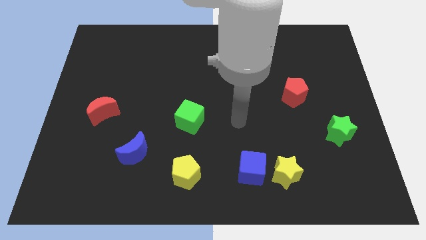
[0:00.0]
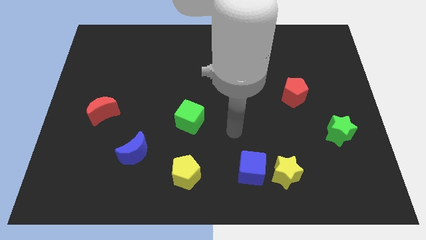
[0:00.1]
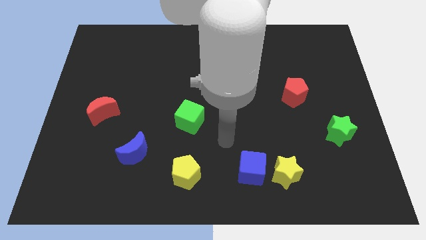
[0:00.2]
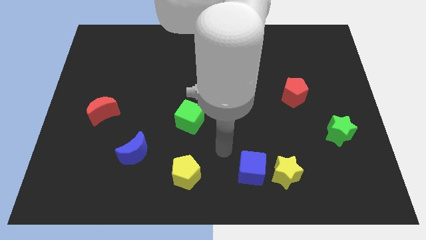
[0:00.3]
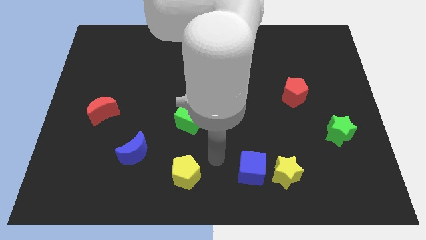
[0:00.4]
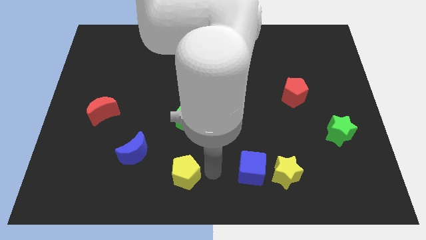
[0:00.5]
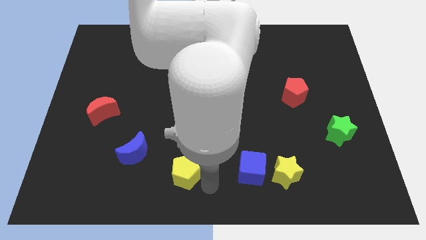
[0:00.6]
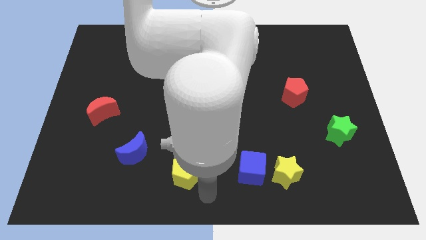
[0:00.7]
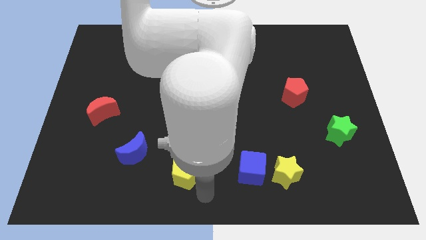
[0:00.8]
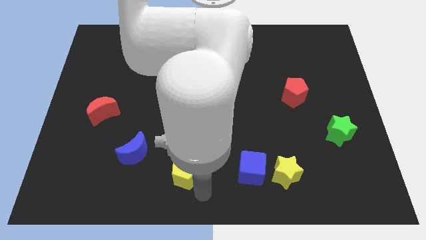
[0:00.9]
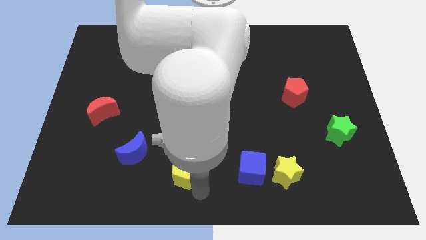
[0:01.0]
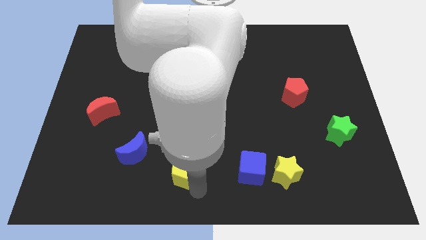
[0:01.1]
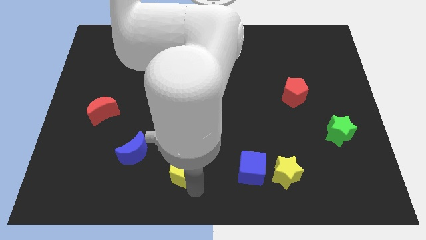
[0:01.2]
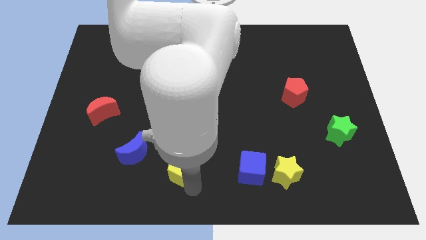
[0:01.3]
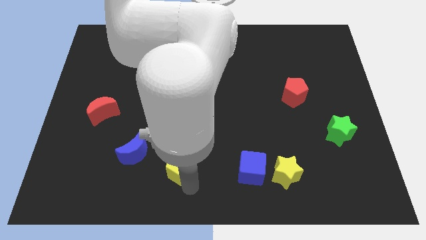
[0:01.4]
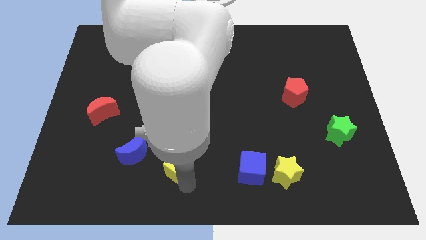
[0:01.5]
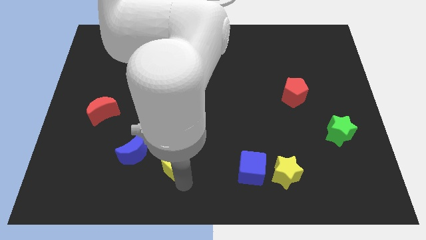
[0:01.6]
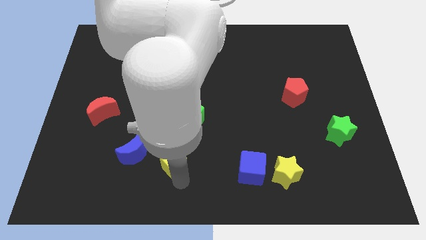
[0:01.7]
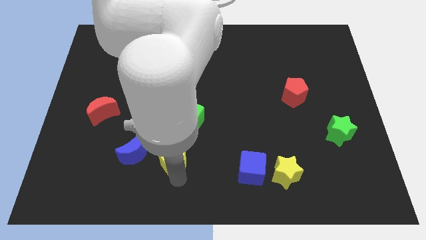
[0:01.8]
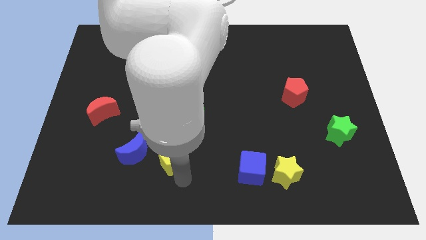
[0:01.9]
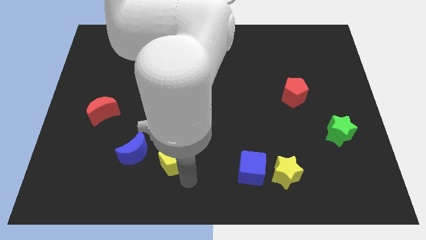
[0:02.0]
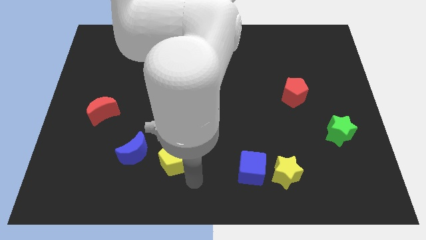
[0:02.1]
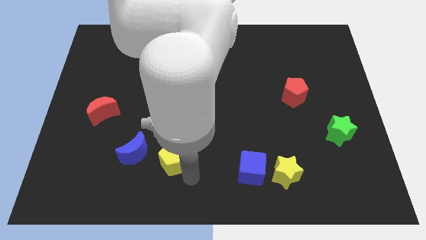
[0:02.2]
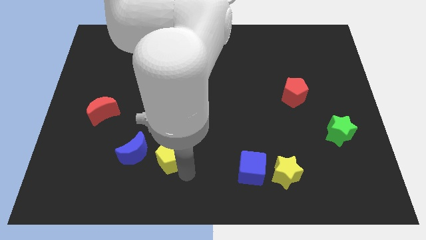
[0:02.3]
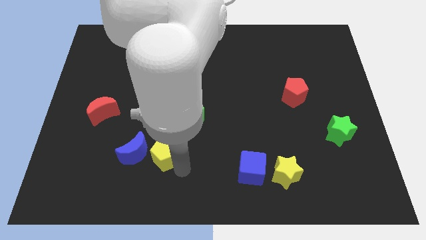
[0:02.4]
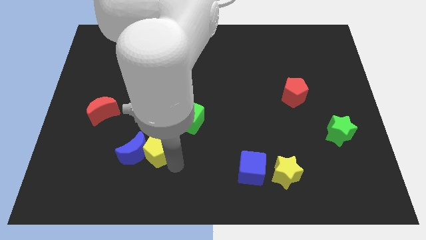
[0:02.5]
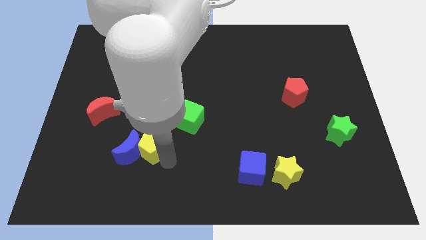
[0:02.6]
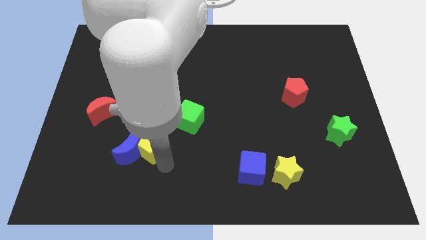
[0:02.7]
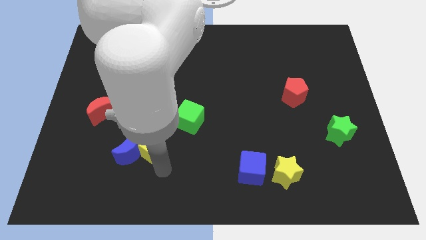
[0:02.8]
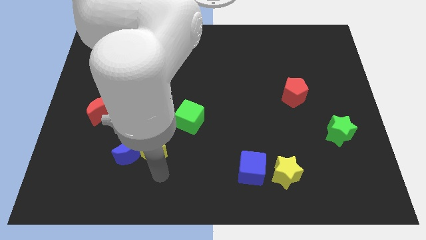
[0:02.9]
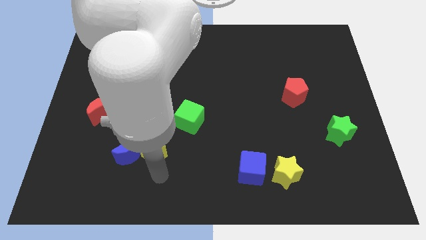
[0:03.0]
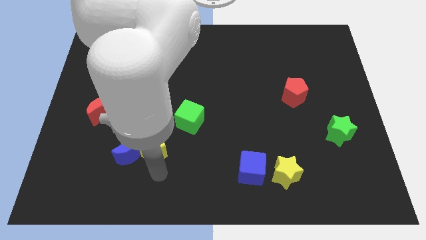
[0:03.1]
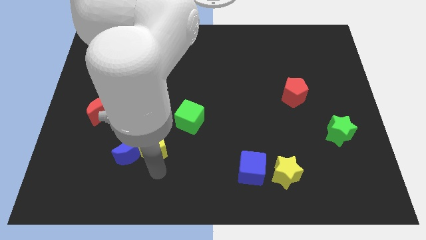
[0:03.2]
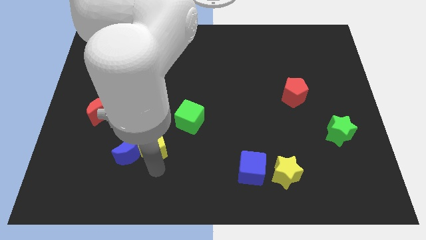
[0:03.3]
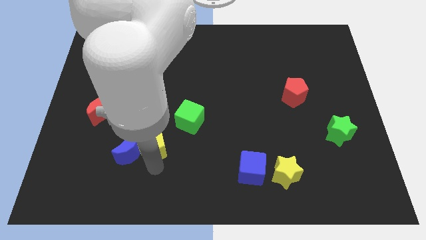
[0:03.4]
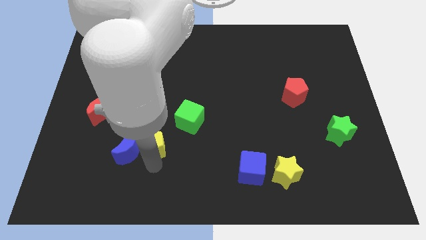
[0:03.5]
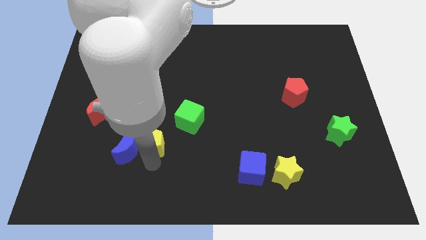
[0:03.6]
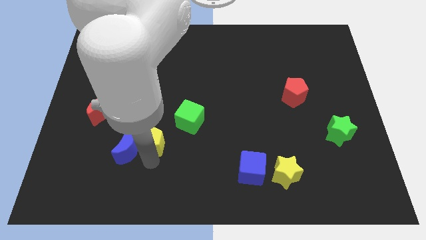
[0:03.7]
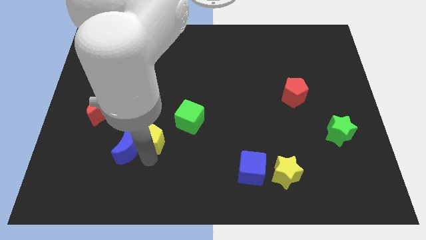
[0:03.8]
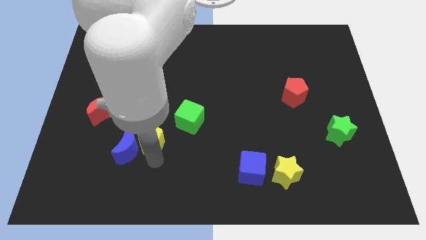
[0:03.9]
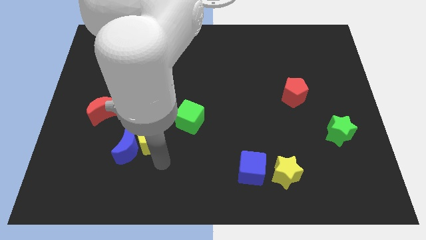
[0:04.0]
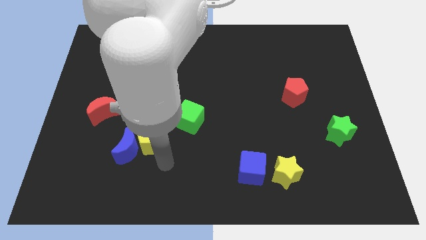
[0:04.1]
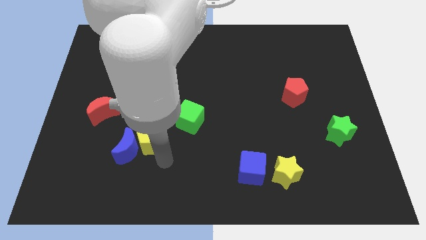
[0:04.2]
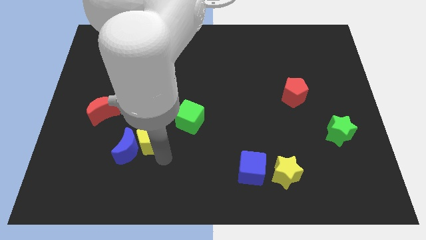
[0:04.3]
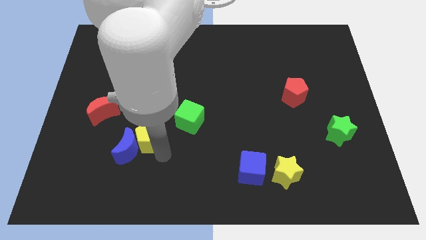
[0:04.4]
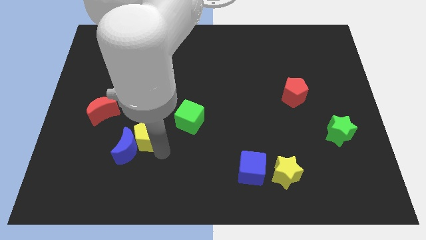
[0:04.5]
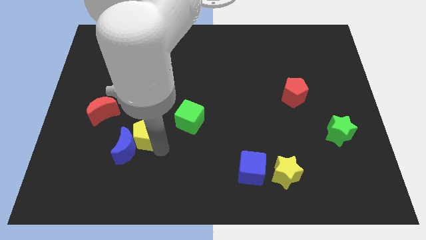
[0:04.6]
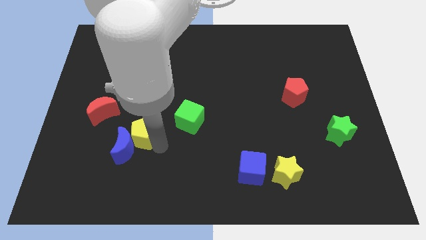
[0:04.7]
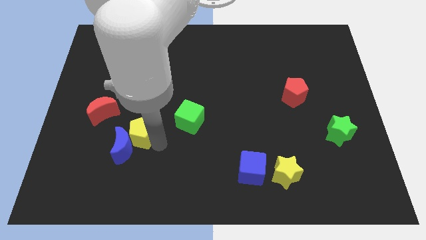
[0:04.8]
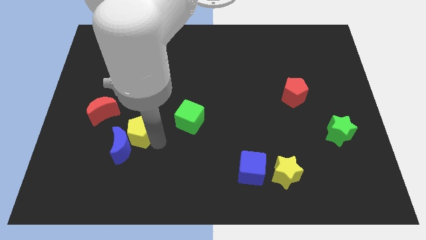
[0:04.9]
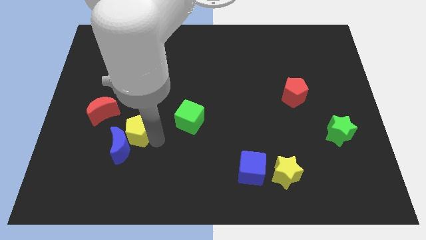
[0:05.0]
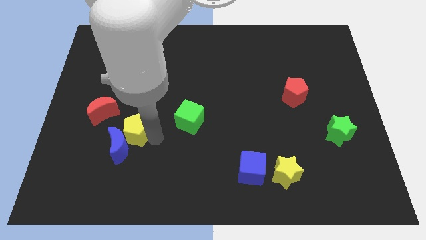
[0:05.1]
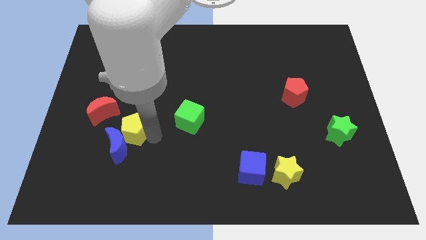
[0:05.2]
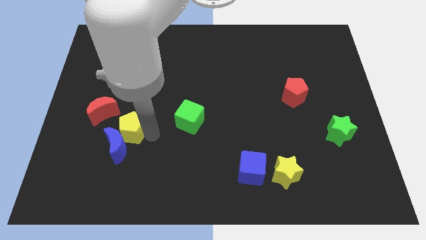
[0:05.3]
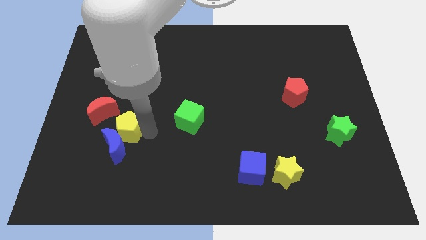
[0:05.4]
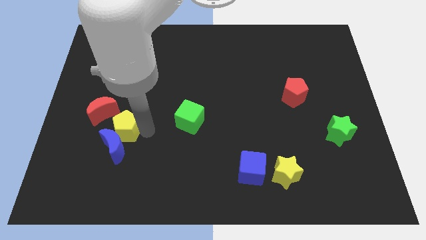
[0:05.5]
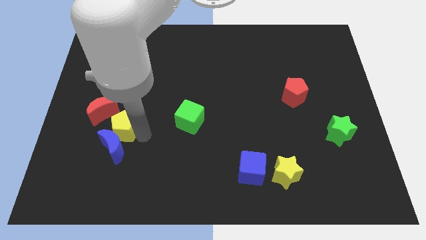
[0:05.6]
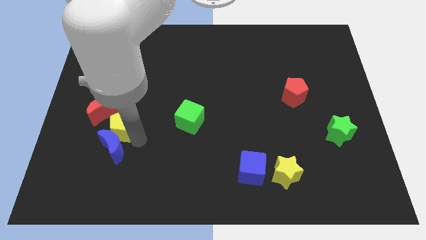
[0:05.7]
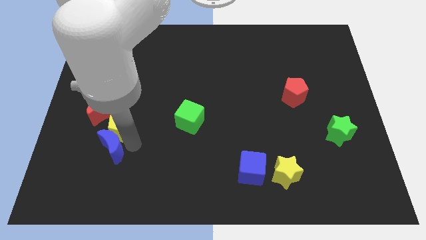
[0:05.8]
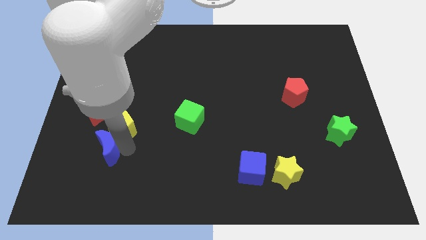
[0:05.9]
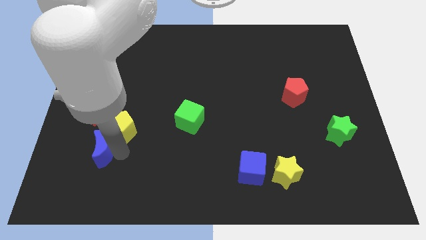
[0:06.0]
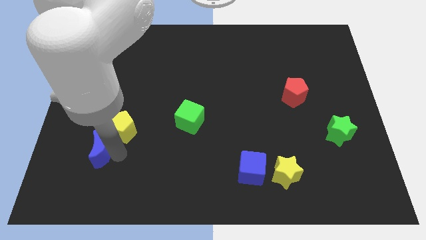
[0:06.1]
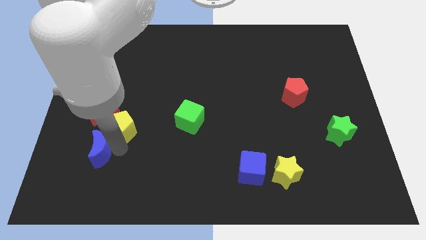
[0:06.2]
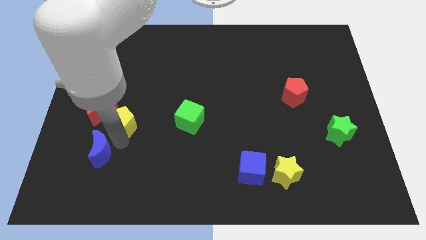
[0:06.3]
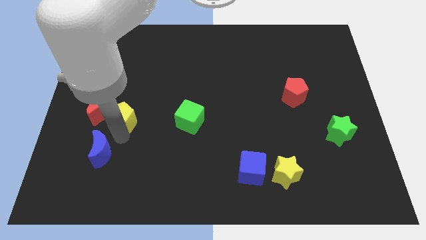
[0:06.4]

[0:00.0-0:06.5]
slide the yellow pentagon upwards and then left

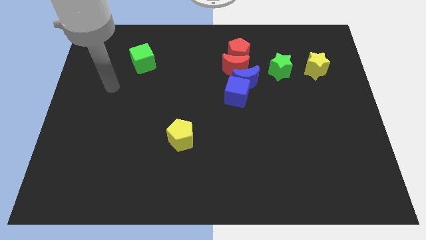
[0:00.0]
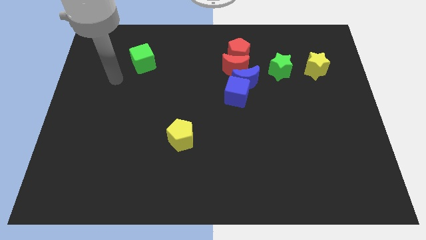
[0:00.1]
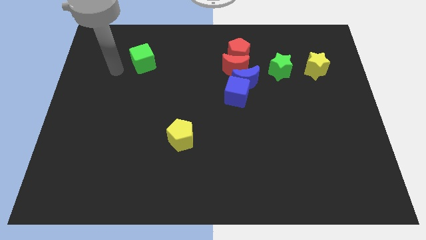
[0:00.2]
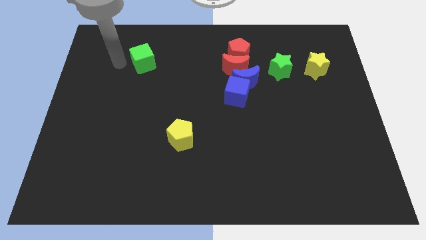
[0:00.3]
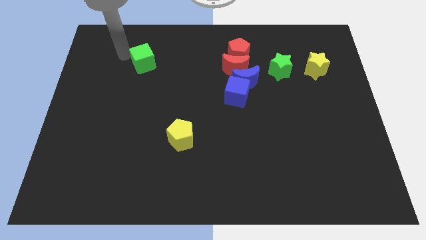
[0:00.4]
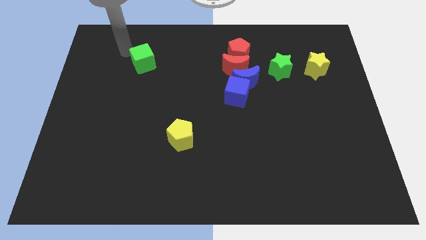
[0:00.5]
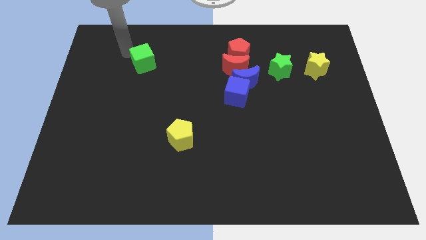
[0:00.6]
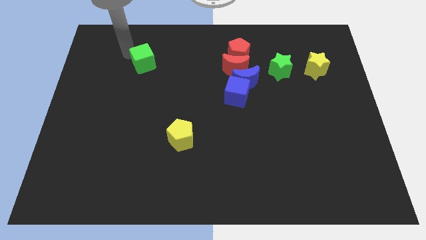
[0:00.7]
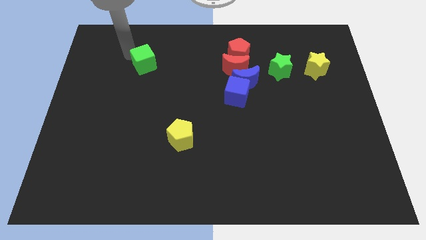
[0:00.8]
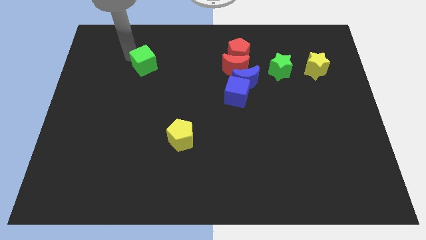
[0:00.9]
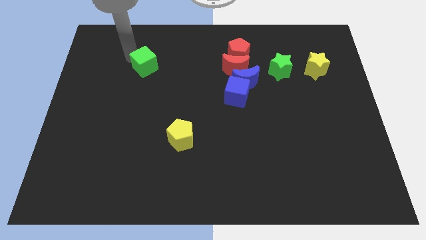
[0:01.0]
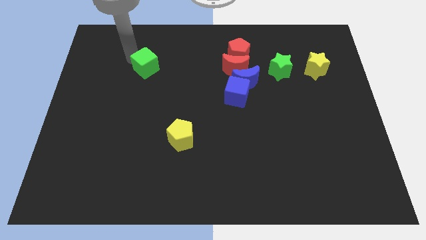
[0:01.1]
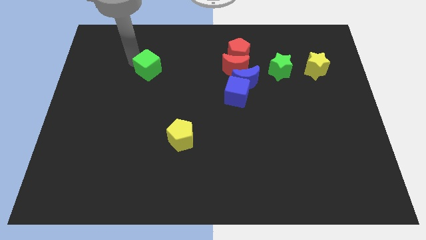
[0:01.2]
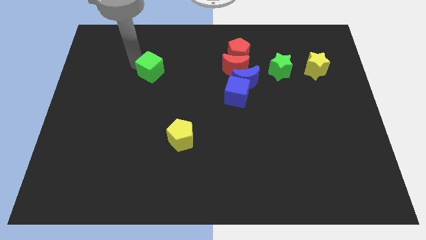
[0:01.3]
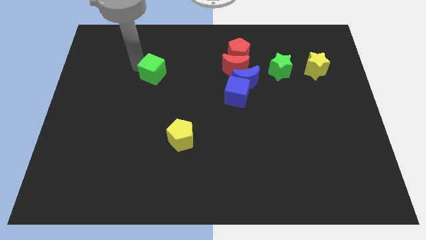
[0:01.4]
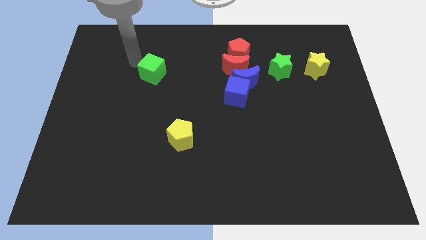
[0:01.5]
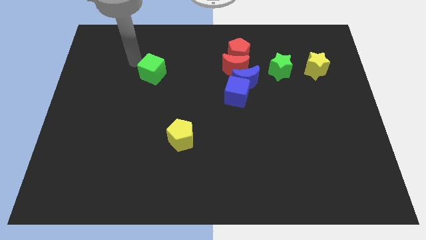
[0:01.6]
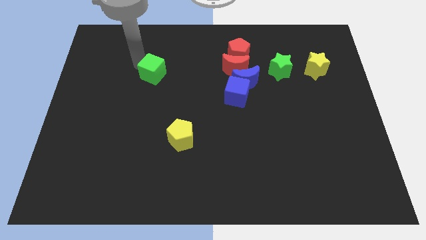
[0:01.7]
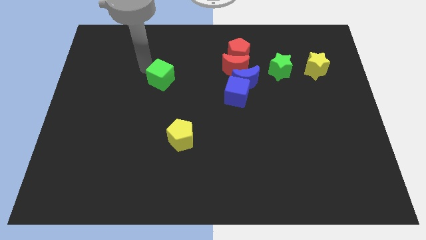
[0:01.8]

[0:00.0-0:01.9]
slide the green cube a bit down and right
